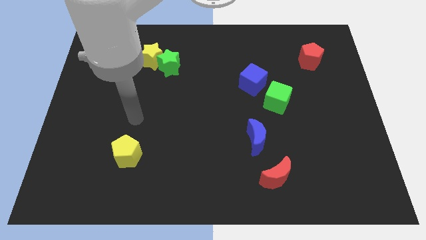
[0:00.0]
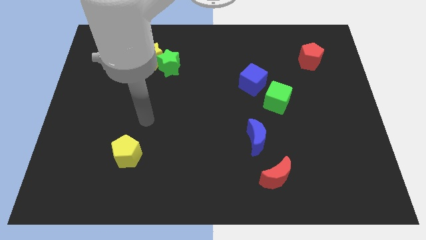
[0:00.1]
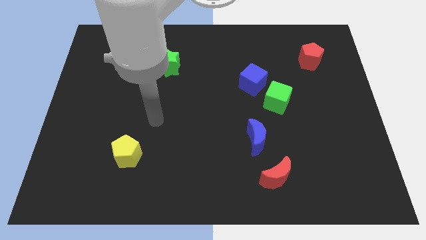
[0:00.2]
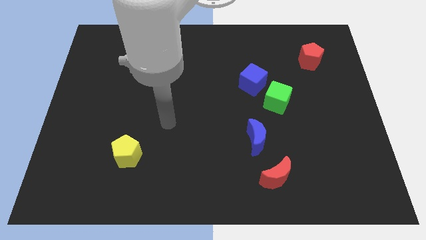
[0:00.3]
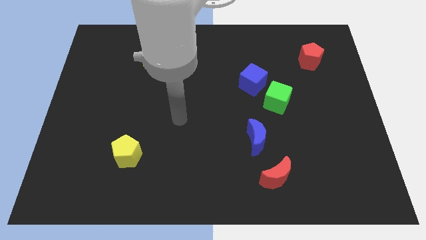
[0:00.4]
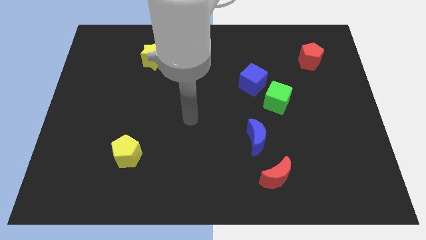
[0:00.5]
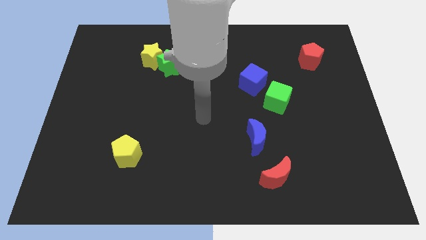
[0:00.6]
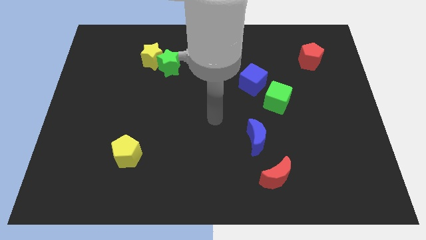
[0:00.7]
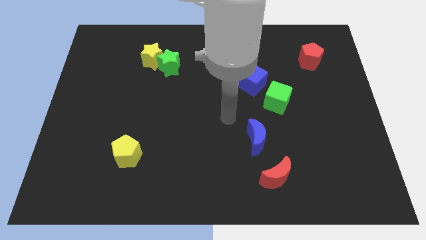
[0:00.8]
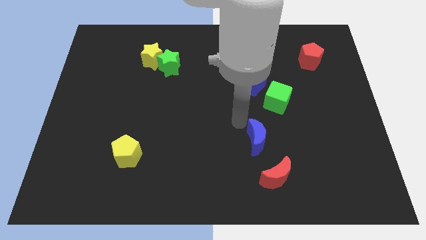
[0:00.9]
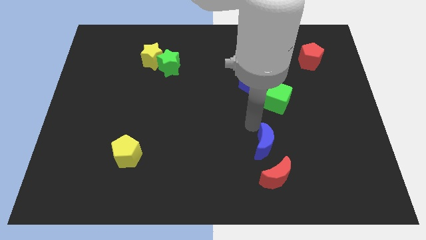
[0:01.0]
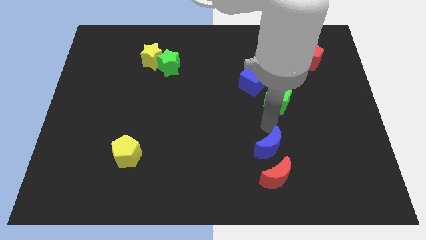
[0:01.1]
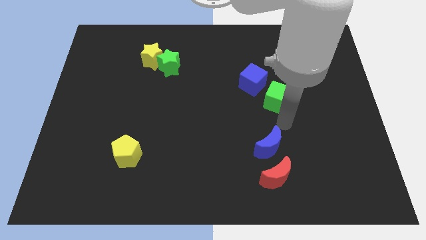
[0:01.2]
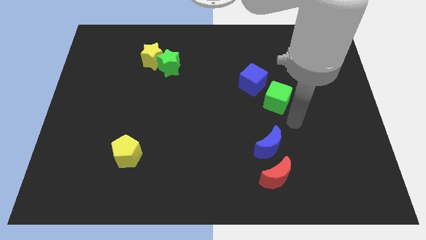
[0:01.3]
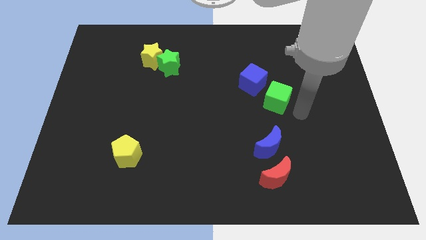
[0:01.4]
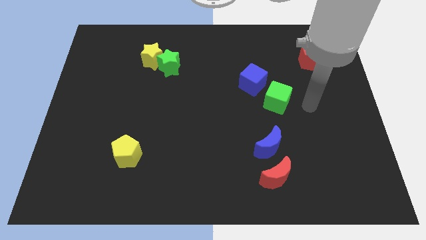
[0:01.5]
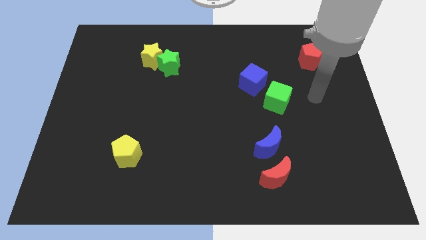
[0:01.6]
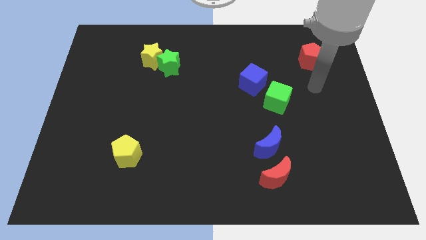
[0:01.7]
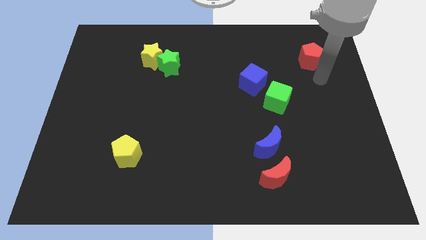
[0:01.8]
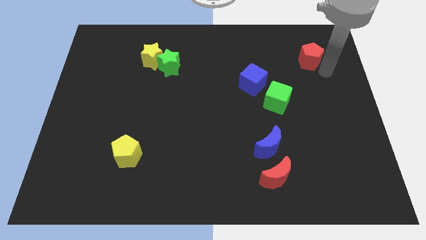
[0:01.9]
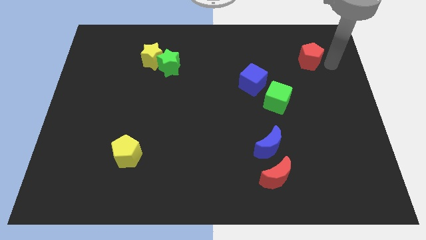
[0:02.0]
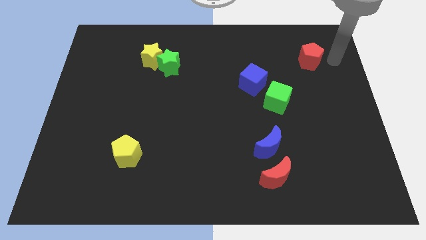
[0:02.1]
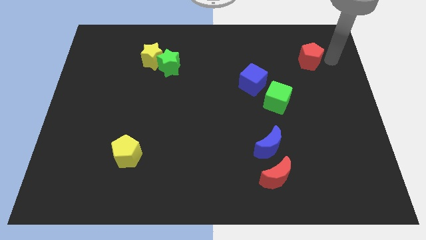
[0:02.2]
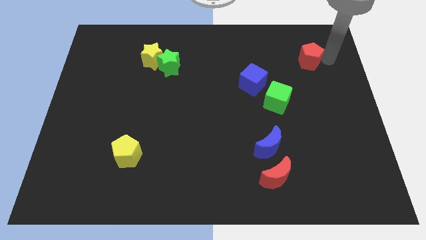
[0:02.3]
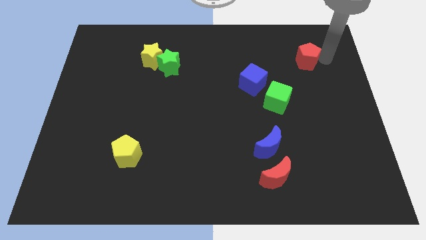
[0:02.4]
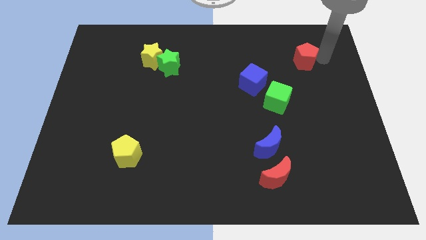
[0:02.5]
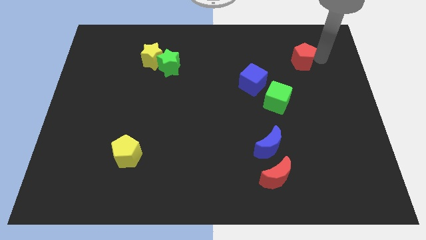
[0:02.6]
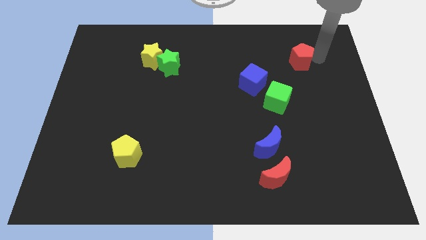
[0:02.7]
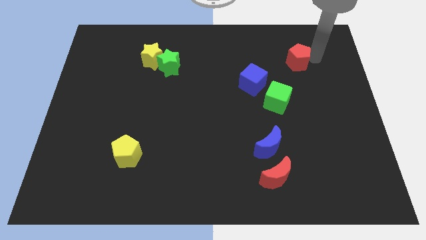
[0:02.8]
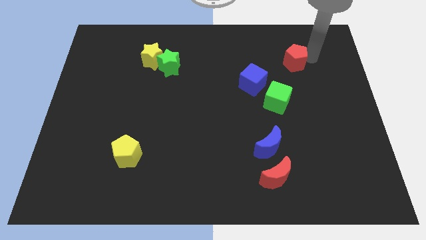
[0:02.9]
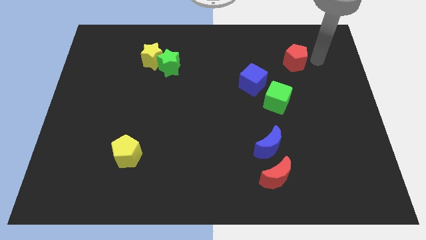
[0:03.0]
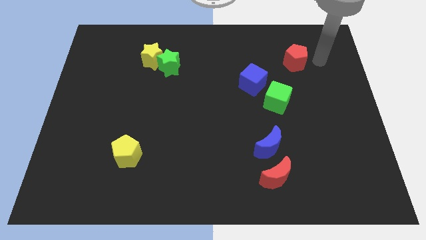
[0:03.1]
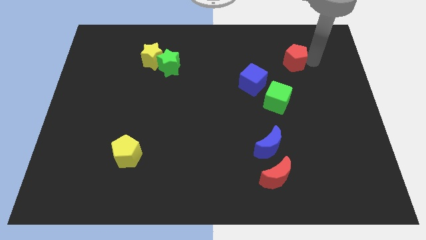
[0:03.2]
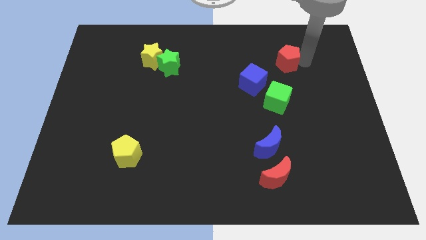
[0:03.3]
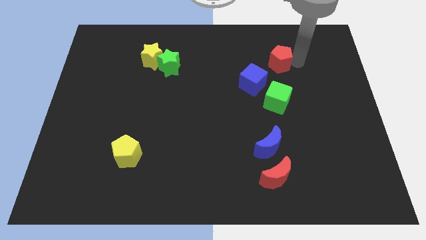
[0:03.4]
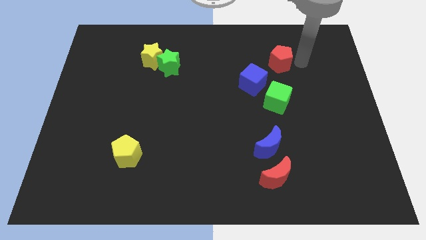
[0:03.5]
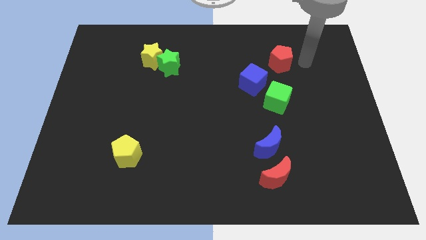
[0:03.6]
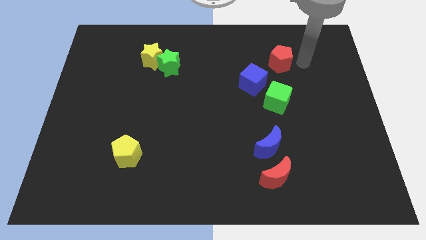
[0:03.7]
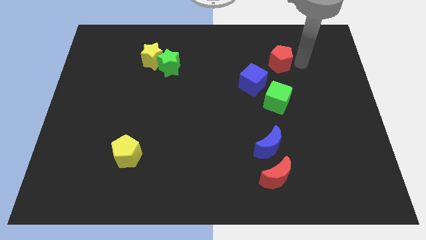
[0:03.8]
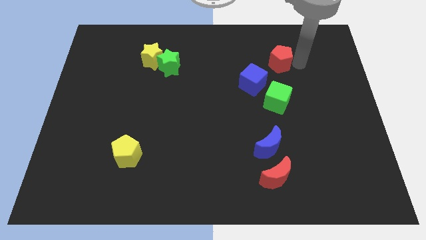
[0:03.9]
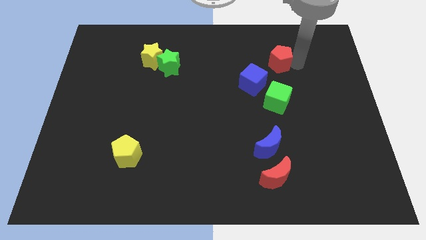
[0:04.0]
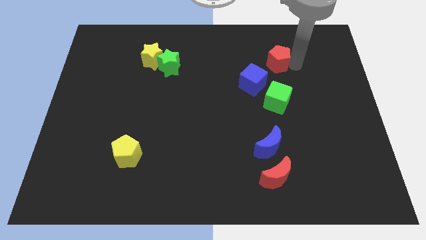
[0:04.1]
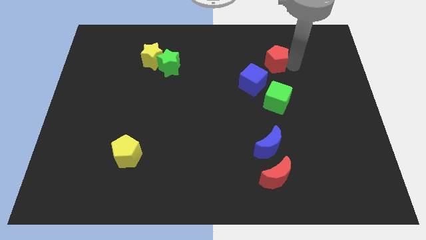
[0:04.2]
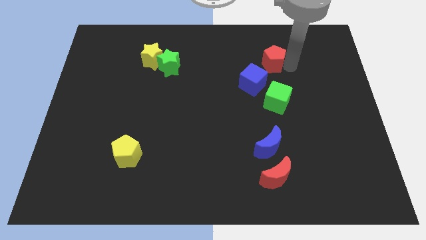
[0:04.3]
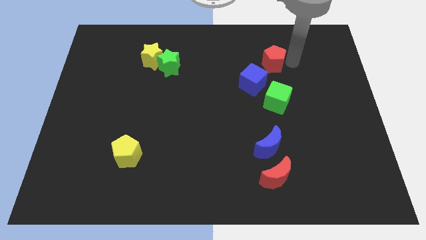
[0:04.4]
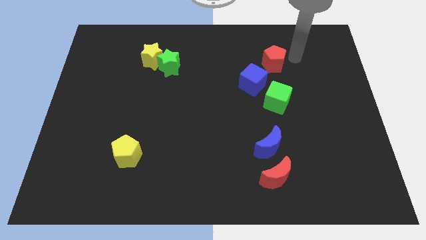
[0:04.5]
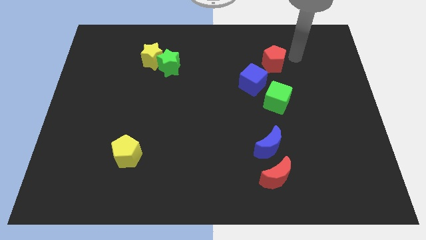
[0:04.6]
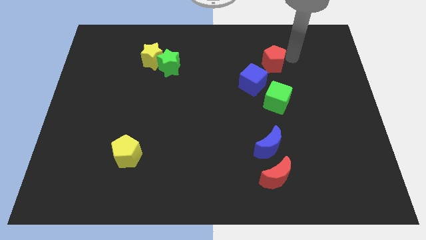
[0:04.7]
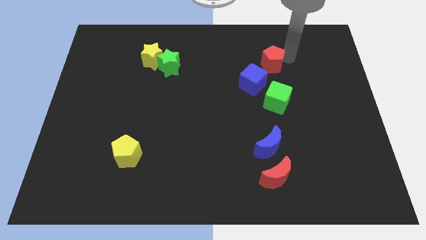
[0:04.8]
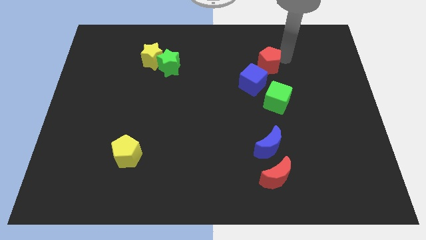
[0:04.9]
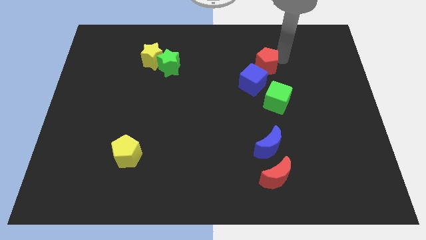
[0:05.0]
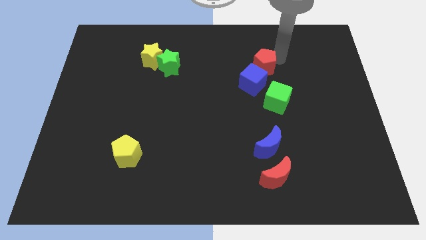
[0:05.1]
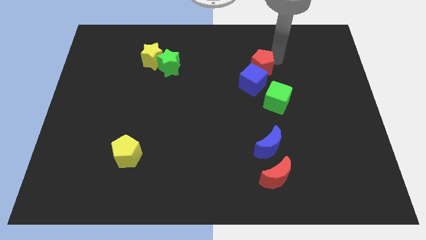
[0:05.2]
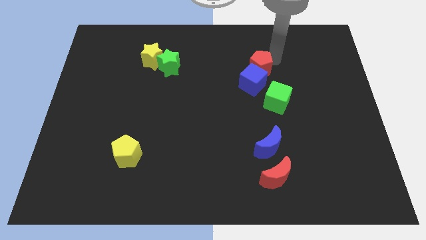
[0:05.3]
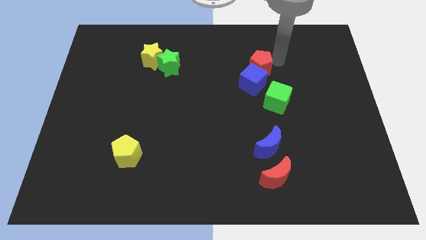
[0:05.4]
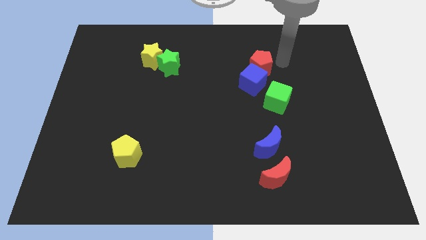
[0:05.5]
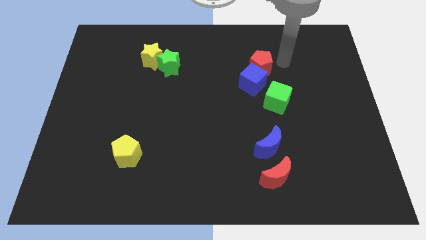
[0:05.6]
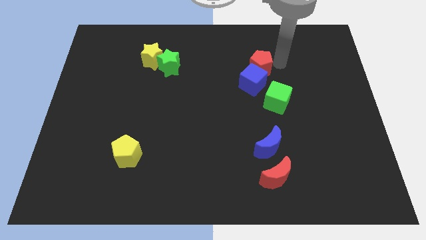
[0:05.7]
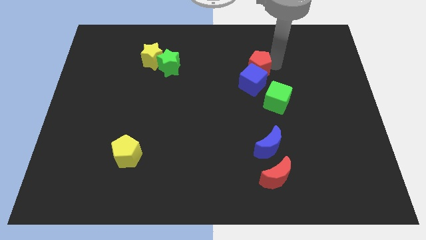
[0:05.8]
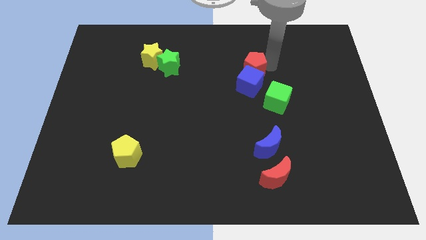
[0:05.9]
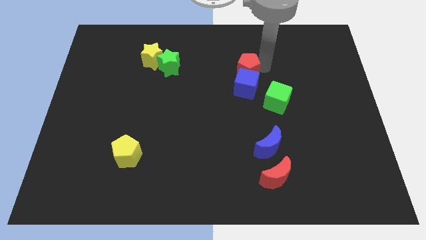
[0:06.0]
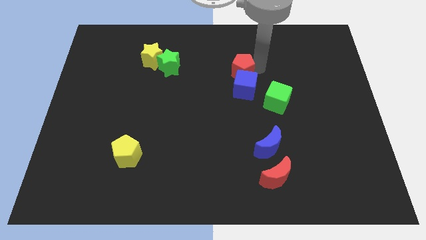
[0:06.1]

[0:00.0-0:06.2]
put the red pentagon to the center
